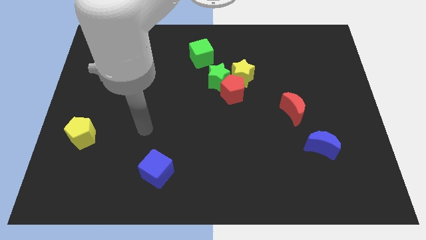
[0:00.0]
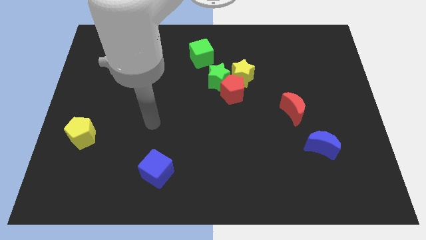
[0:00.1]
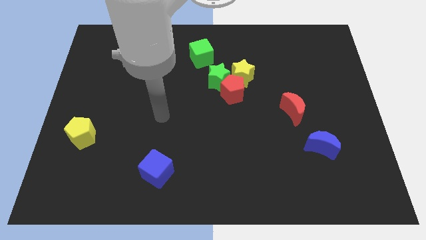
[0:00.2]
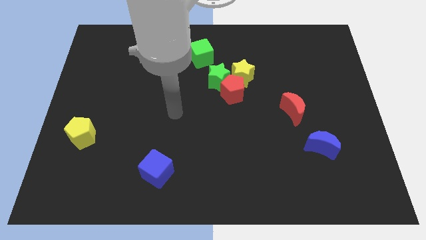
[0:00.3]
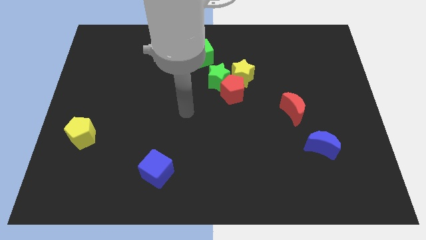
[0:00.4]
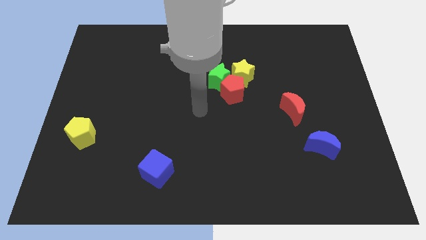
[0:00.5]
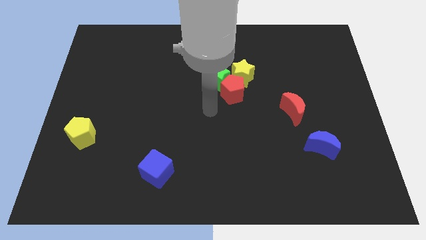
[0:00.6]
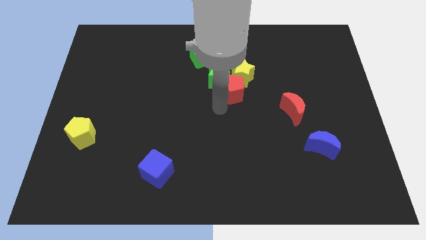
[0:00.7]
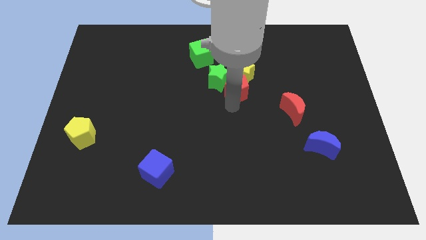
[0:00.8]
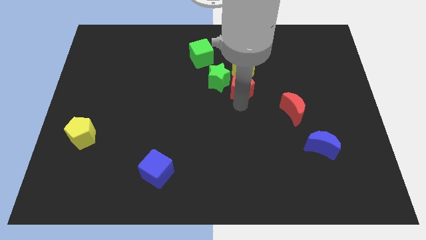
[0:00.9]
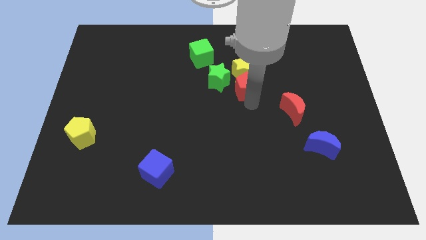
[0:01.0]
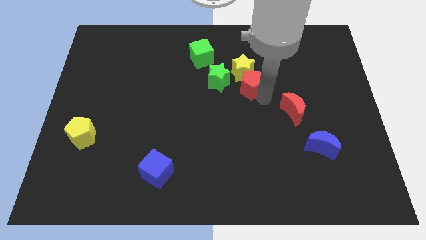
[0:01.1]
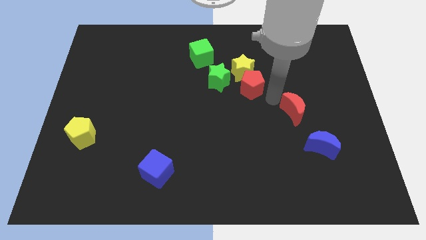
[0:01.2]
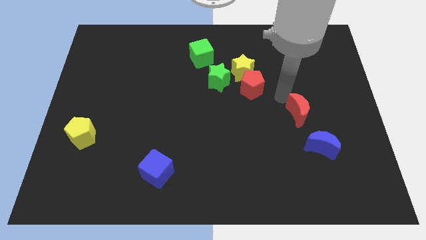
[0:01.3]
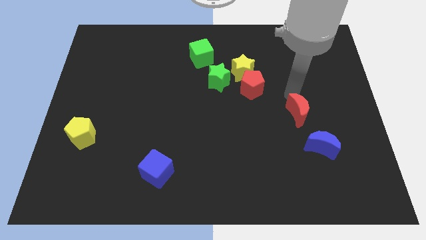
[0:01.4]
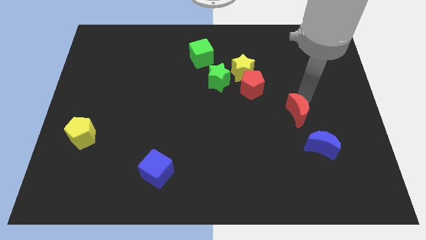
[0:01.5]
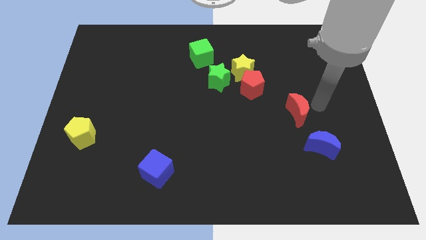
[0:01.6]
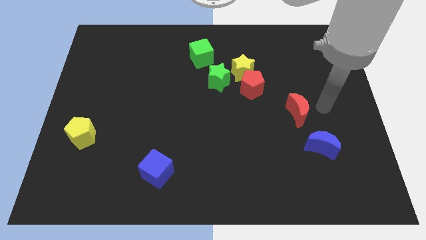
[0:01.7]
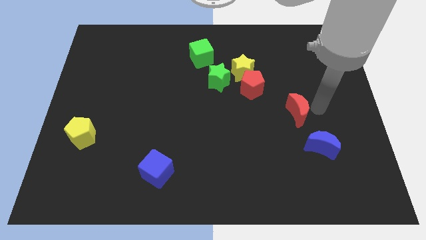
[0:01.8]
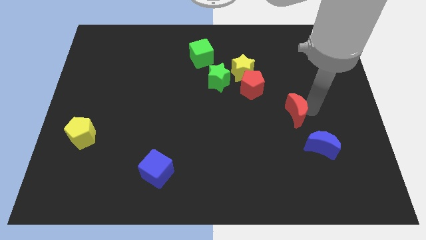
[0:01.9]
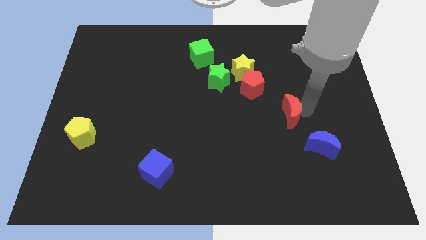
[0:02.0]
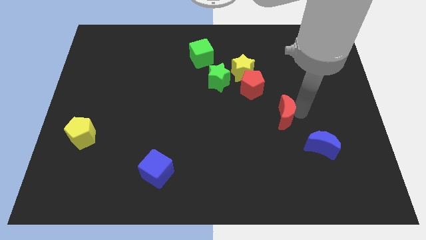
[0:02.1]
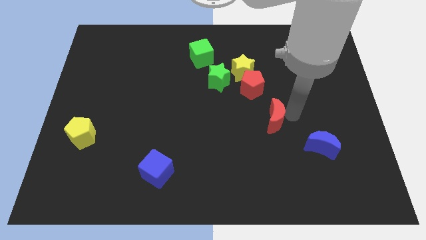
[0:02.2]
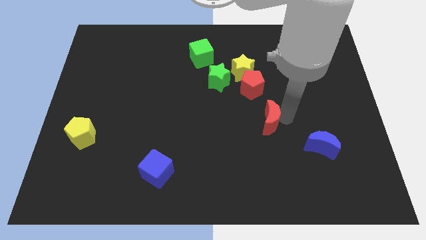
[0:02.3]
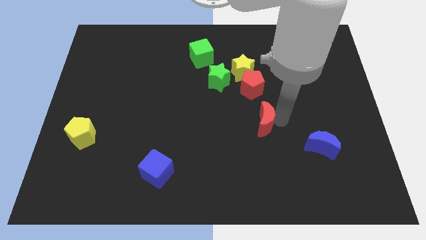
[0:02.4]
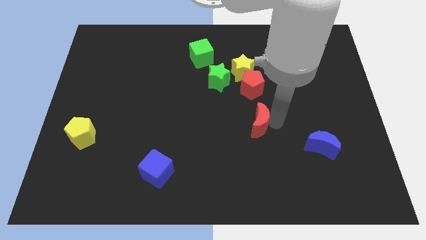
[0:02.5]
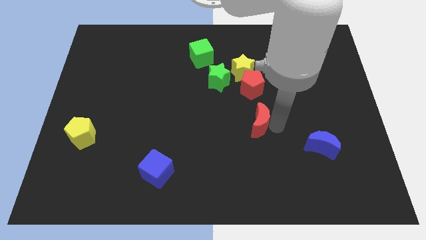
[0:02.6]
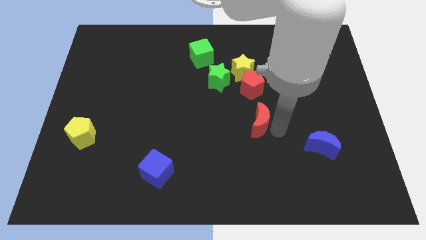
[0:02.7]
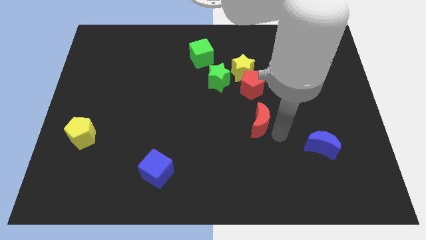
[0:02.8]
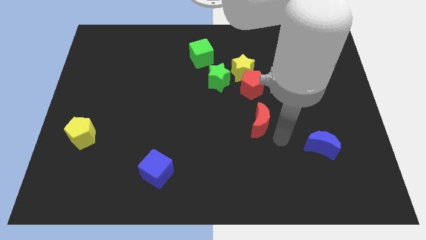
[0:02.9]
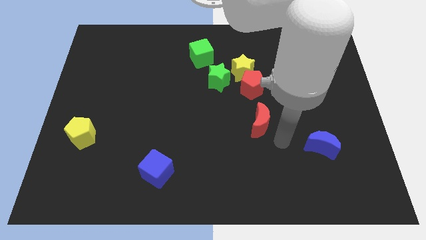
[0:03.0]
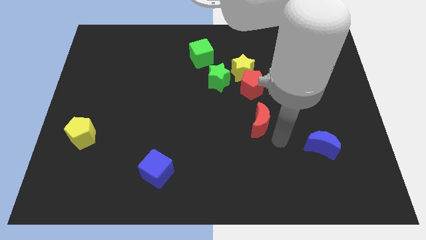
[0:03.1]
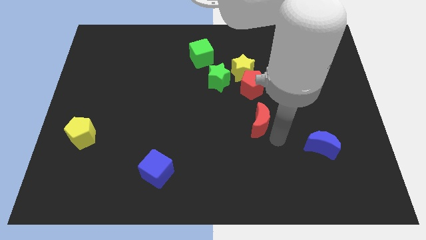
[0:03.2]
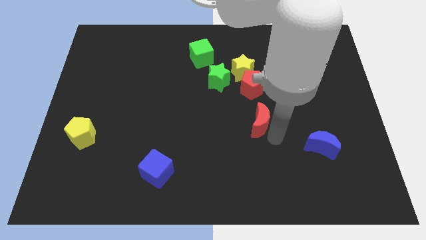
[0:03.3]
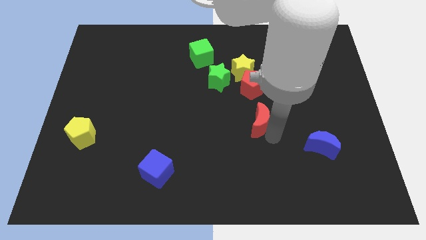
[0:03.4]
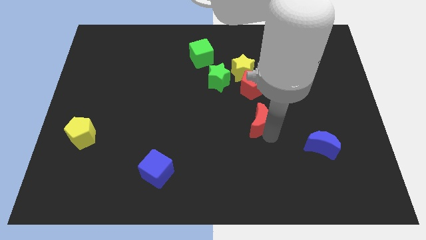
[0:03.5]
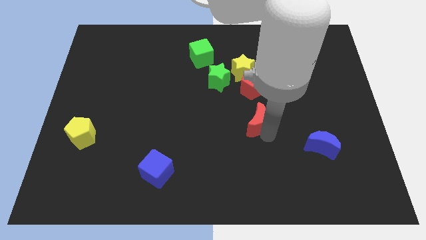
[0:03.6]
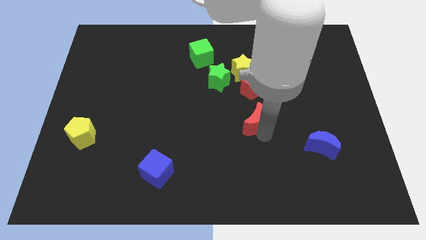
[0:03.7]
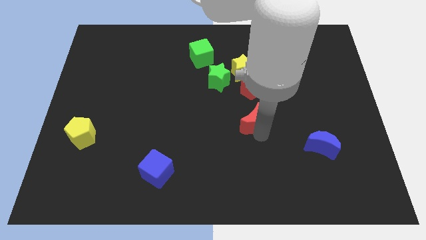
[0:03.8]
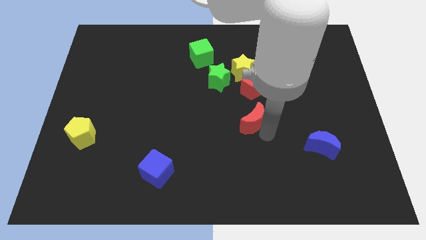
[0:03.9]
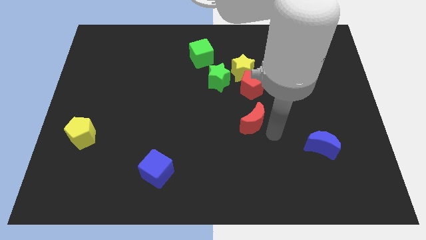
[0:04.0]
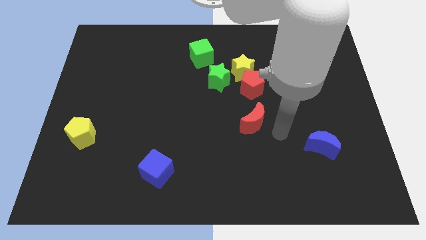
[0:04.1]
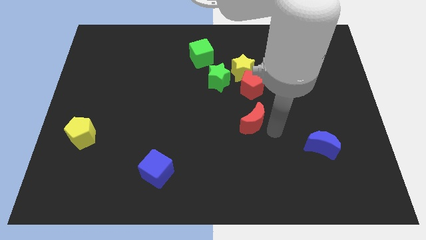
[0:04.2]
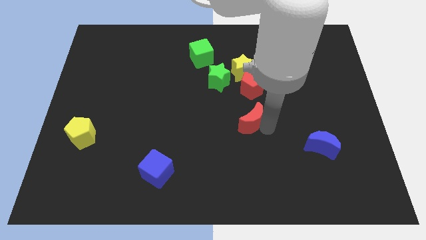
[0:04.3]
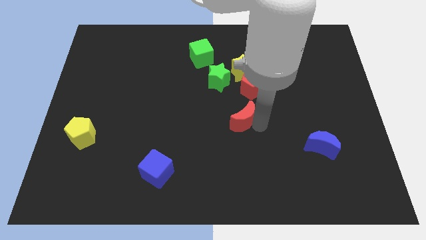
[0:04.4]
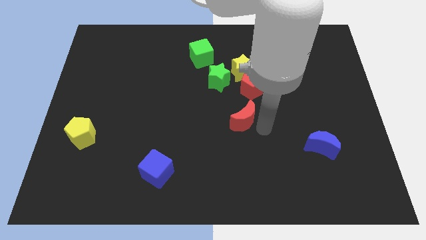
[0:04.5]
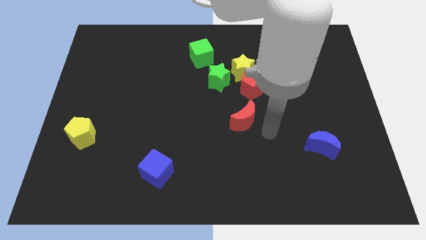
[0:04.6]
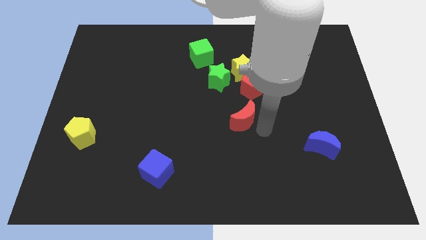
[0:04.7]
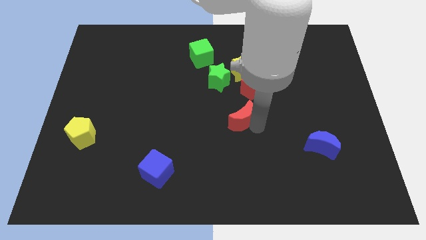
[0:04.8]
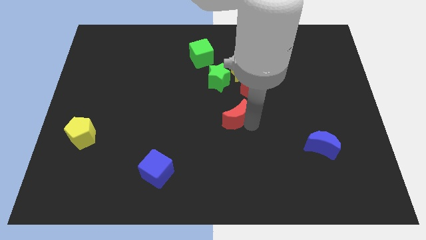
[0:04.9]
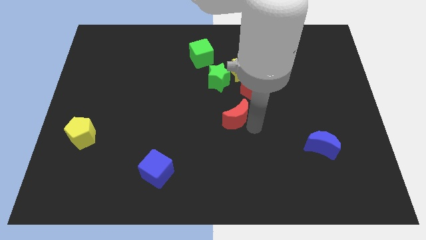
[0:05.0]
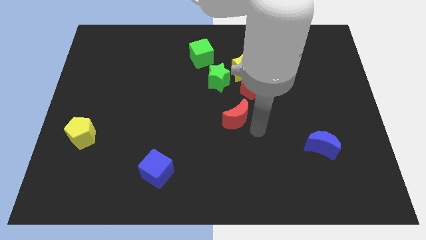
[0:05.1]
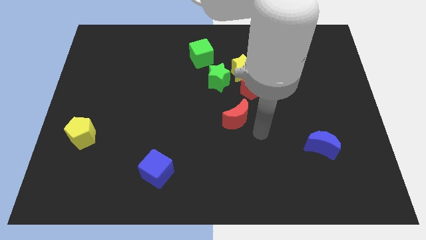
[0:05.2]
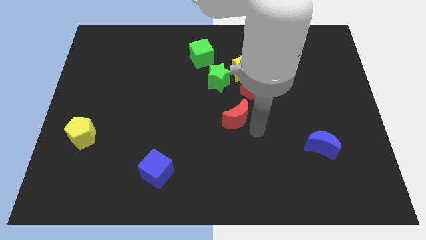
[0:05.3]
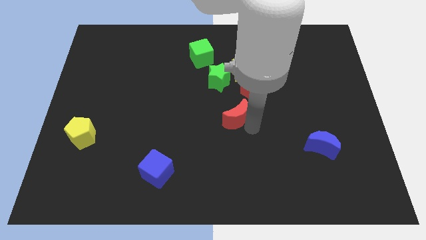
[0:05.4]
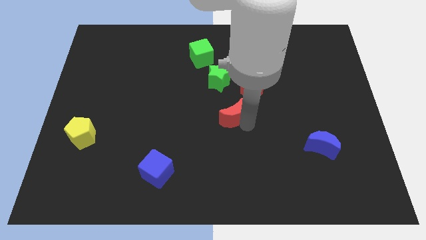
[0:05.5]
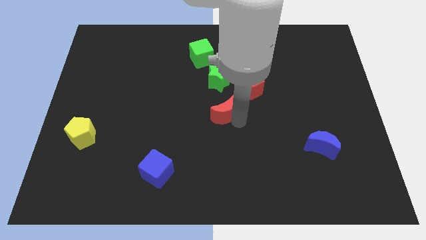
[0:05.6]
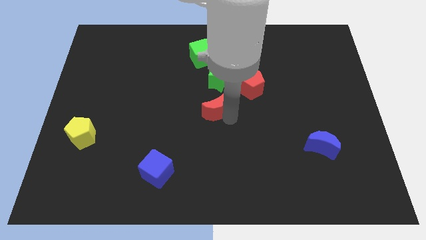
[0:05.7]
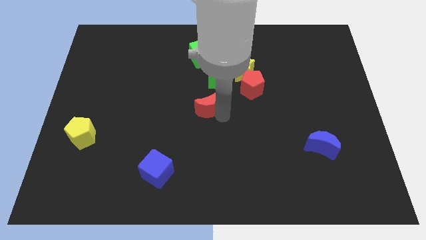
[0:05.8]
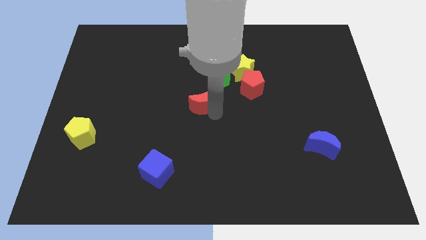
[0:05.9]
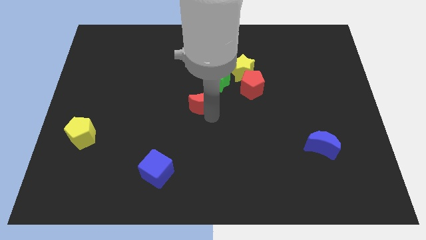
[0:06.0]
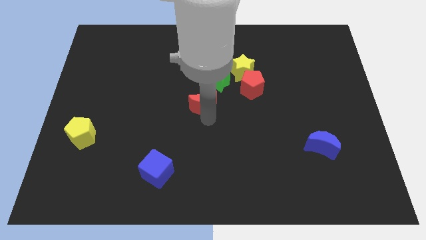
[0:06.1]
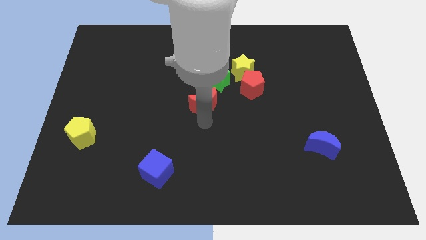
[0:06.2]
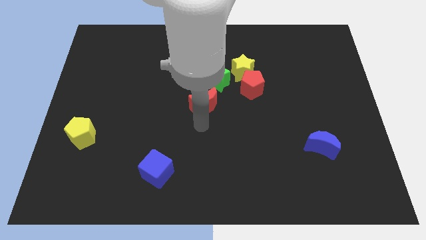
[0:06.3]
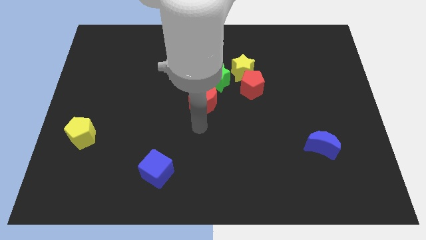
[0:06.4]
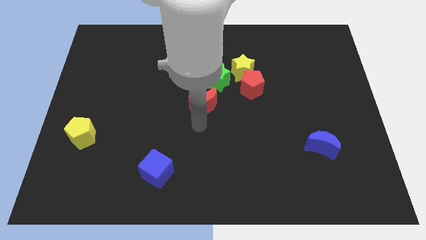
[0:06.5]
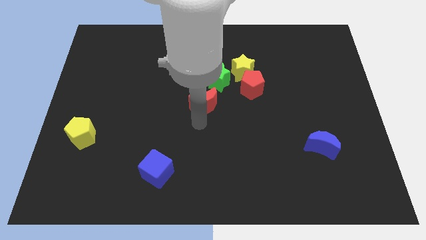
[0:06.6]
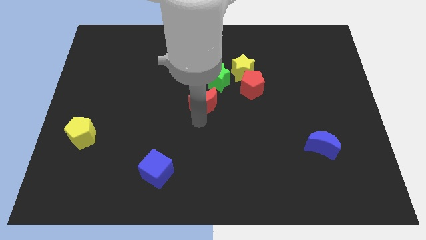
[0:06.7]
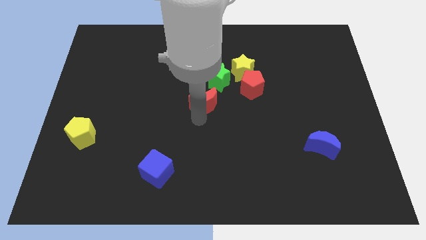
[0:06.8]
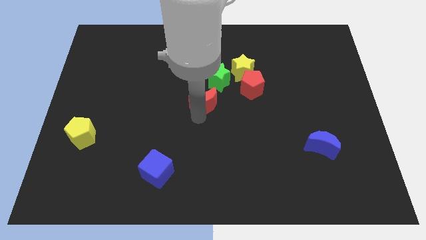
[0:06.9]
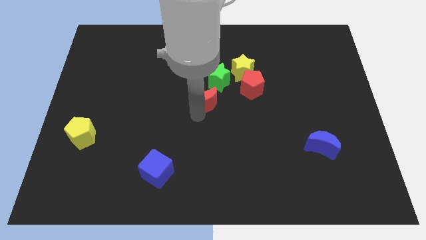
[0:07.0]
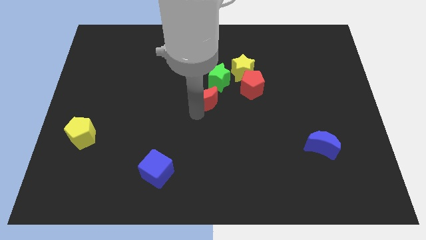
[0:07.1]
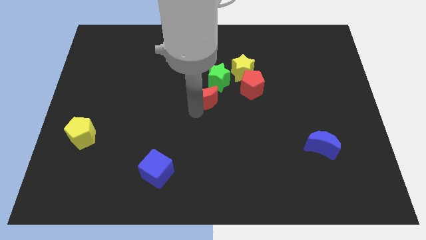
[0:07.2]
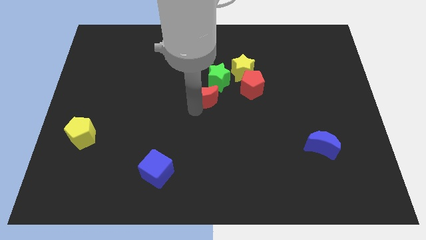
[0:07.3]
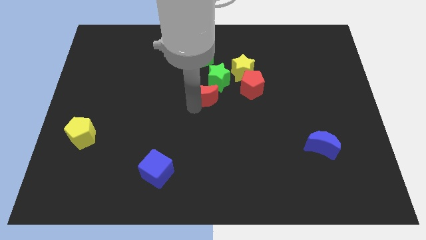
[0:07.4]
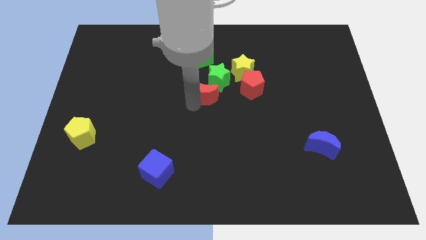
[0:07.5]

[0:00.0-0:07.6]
put the red moon close to the green star
